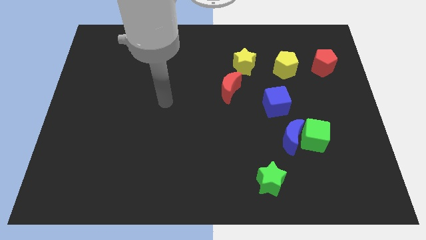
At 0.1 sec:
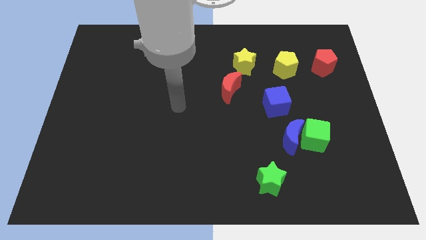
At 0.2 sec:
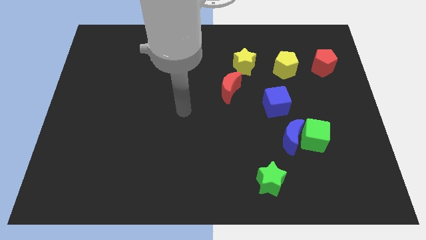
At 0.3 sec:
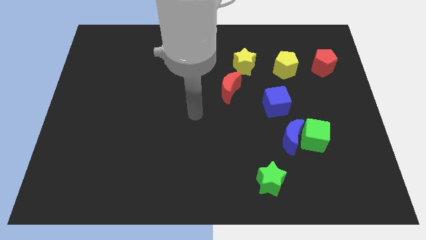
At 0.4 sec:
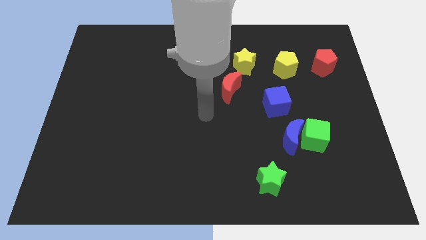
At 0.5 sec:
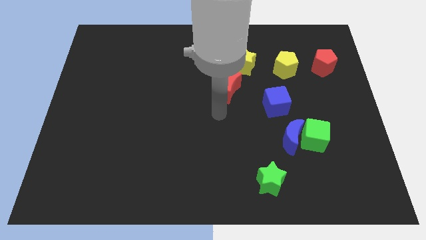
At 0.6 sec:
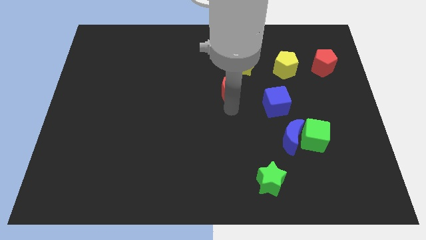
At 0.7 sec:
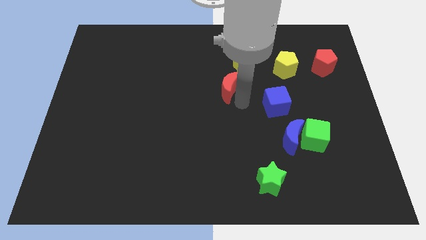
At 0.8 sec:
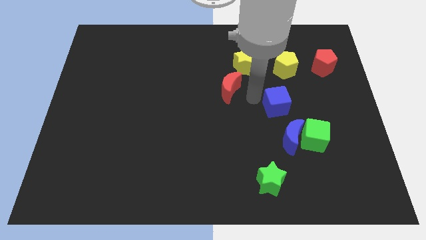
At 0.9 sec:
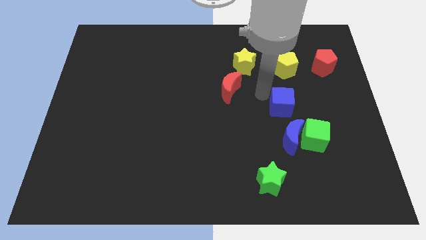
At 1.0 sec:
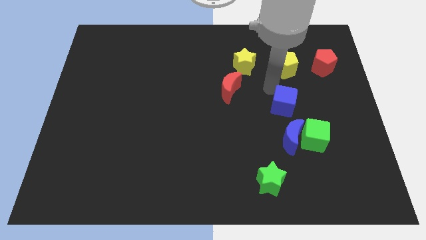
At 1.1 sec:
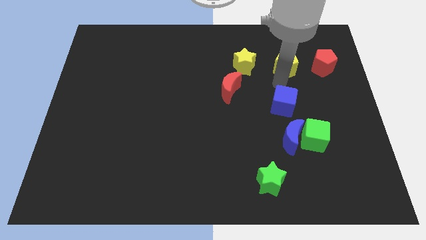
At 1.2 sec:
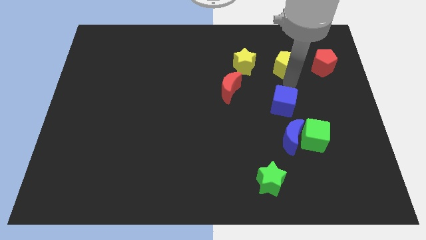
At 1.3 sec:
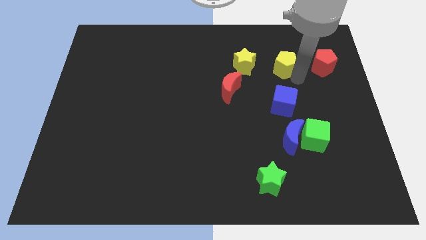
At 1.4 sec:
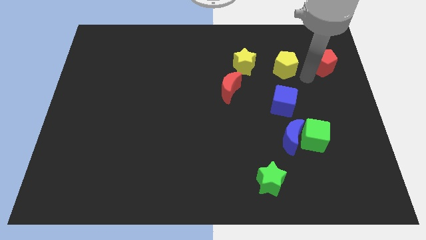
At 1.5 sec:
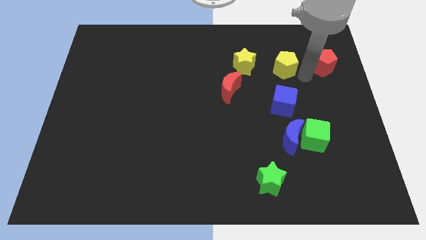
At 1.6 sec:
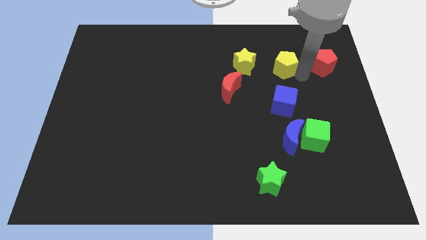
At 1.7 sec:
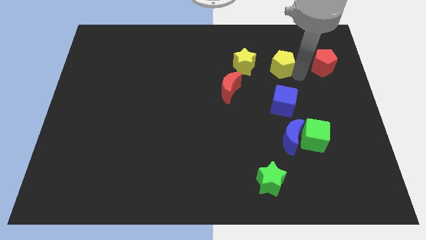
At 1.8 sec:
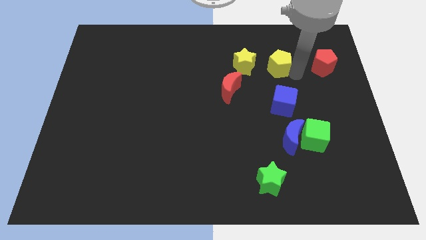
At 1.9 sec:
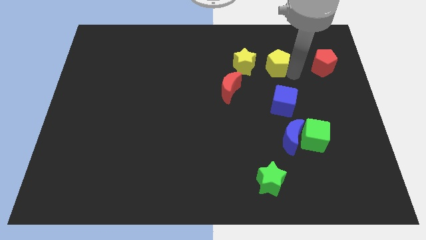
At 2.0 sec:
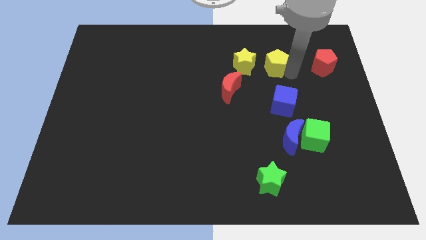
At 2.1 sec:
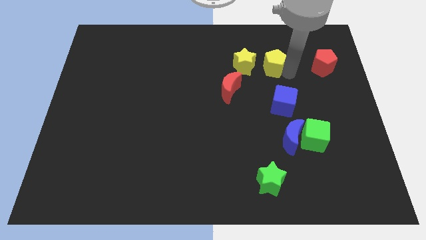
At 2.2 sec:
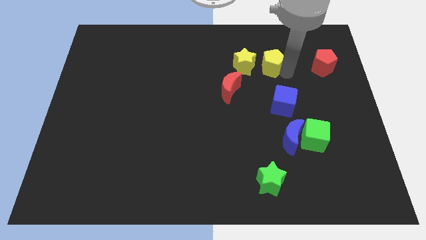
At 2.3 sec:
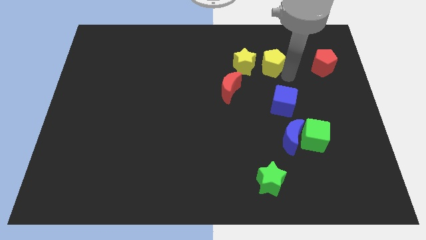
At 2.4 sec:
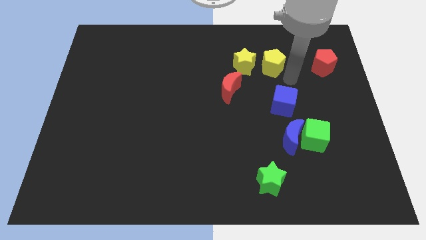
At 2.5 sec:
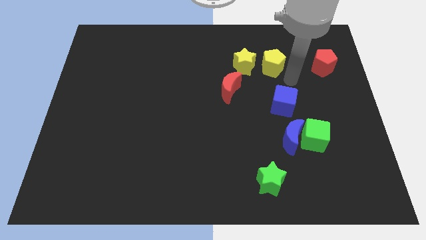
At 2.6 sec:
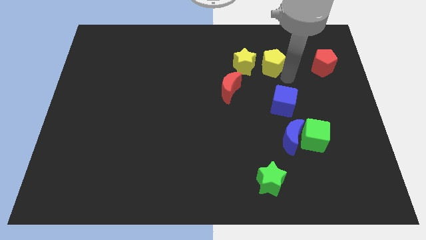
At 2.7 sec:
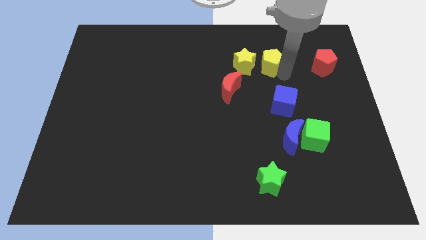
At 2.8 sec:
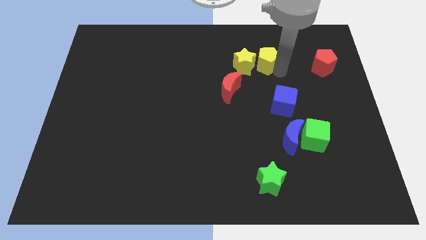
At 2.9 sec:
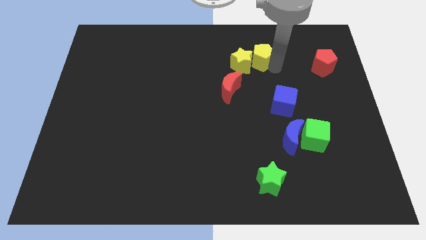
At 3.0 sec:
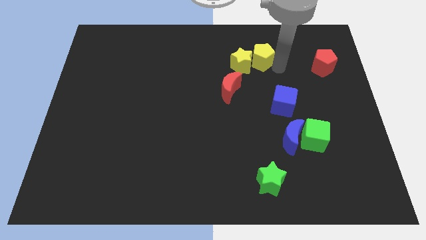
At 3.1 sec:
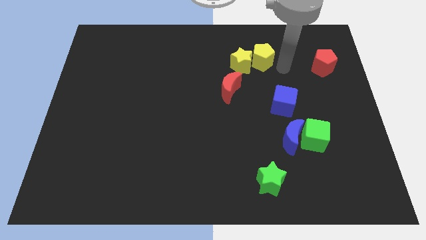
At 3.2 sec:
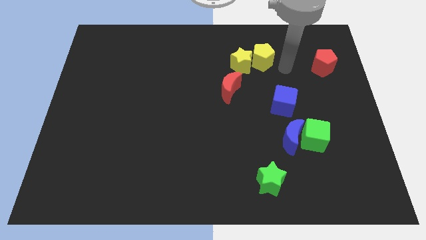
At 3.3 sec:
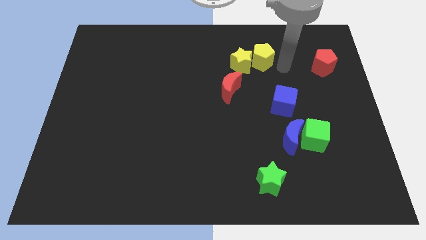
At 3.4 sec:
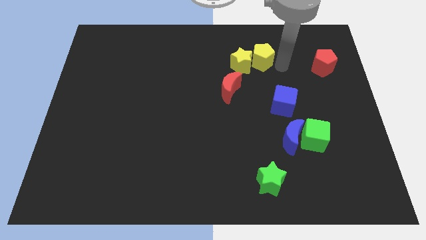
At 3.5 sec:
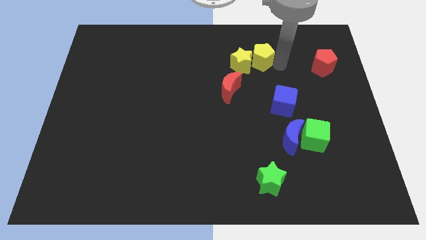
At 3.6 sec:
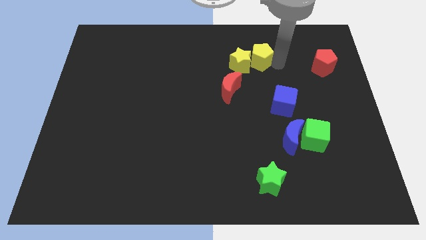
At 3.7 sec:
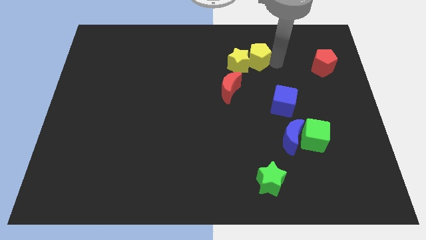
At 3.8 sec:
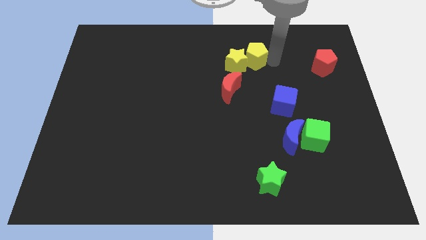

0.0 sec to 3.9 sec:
slide the yellow pentagon to the left slightly

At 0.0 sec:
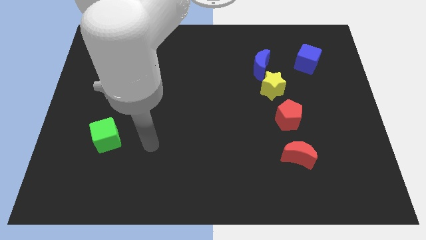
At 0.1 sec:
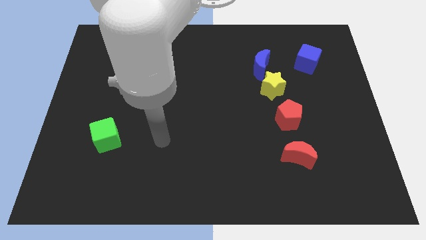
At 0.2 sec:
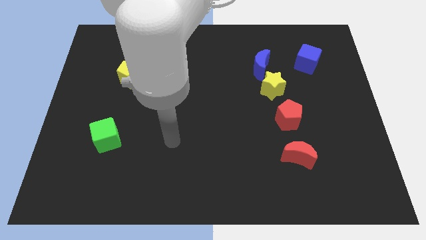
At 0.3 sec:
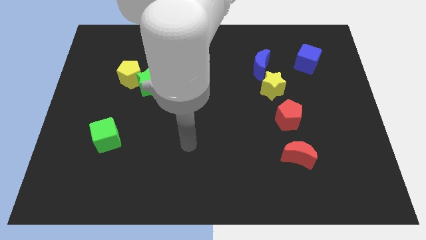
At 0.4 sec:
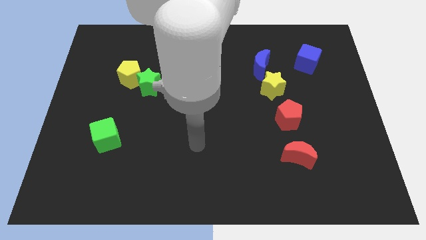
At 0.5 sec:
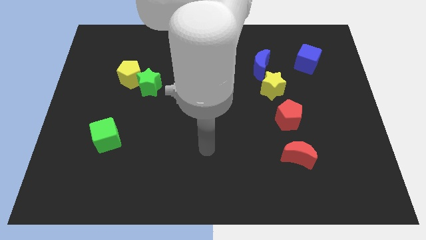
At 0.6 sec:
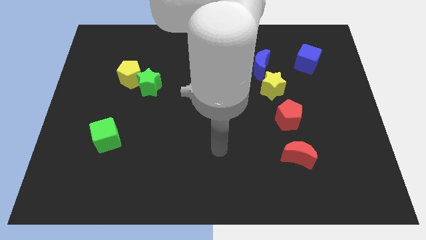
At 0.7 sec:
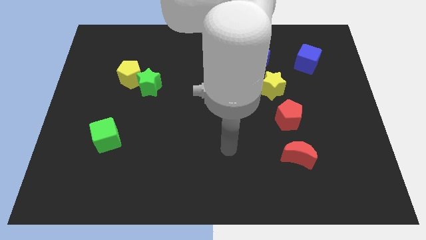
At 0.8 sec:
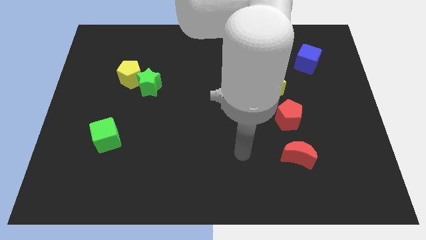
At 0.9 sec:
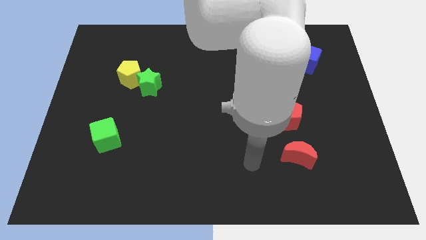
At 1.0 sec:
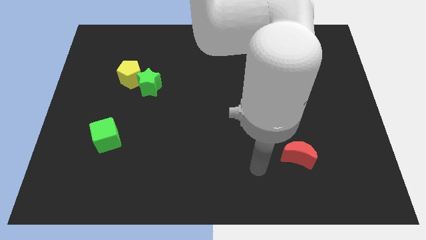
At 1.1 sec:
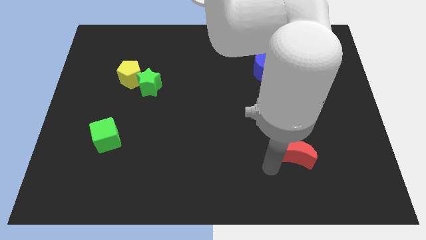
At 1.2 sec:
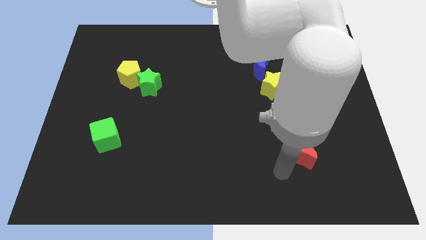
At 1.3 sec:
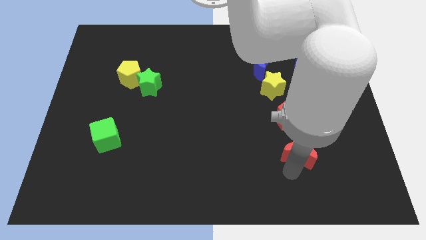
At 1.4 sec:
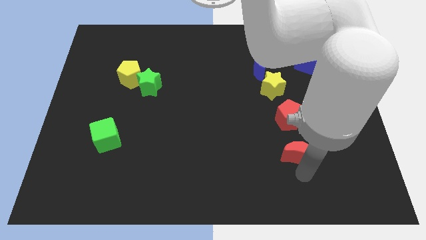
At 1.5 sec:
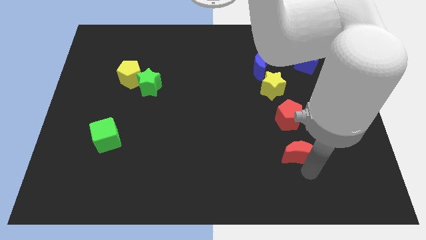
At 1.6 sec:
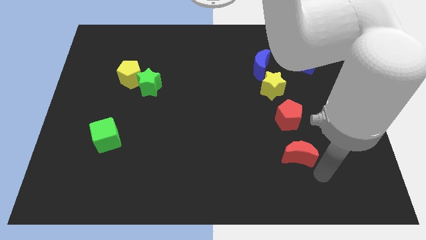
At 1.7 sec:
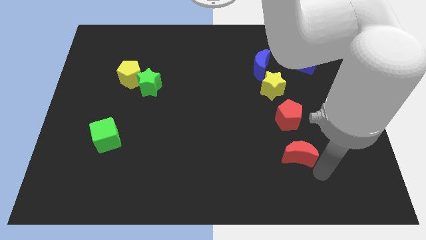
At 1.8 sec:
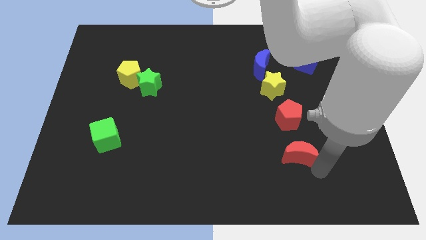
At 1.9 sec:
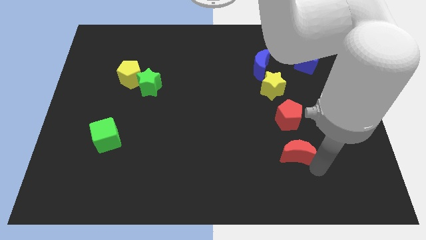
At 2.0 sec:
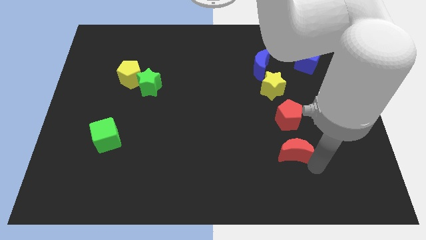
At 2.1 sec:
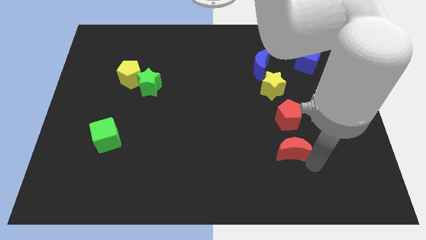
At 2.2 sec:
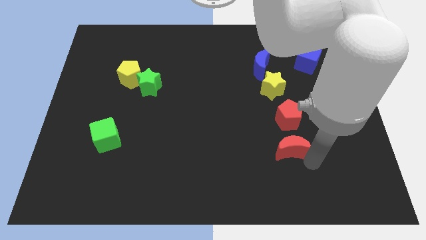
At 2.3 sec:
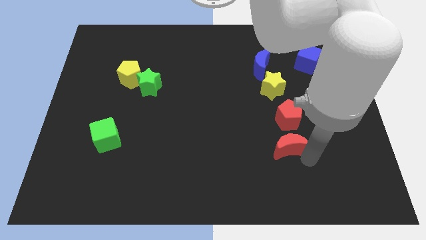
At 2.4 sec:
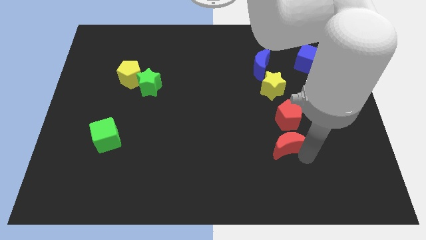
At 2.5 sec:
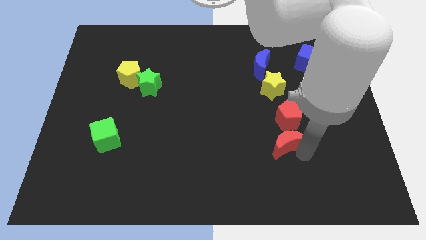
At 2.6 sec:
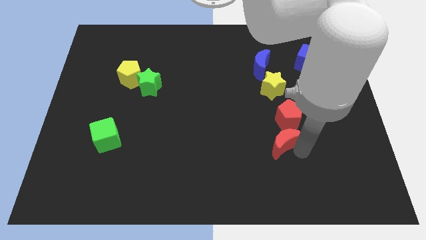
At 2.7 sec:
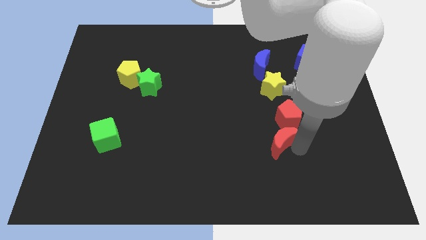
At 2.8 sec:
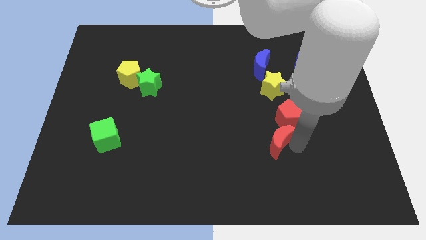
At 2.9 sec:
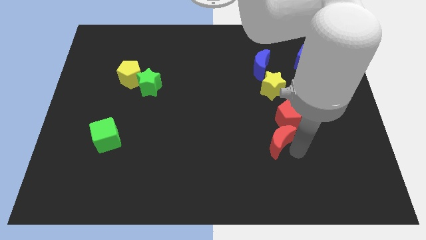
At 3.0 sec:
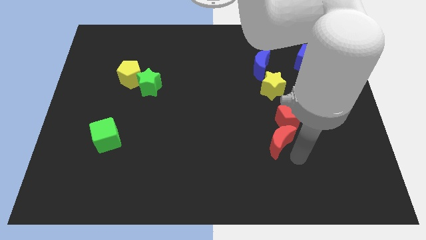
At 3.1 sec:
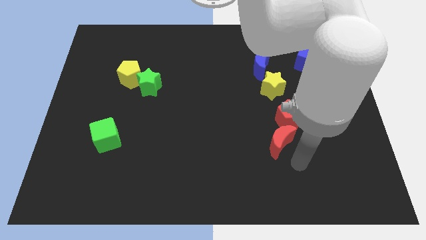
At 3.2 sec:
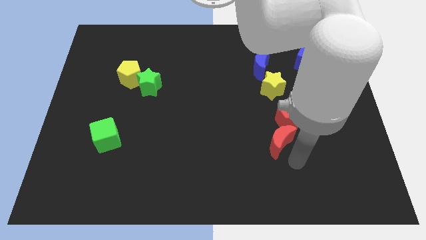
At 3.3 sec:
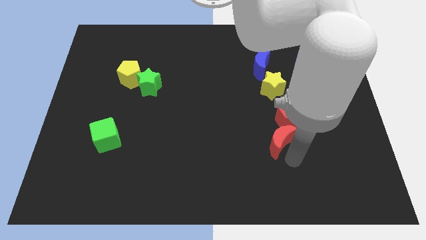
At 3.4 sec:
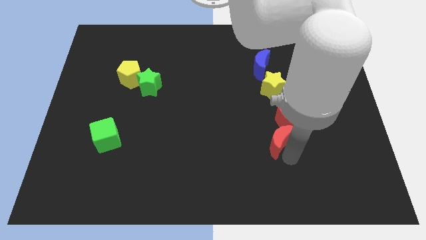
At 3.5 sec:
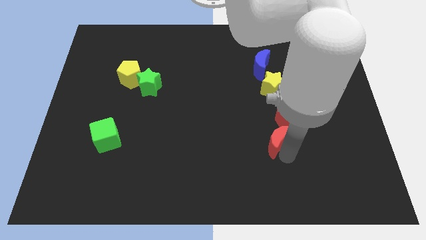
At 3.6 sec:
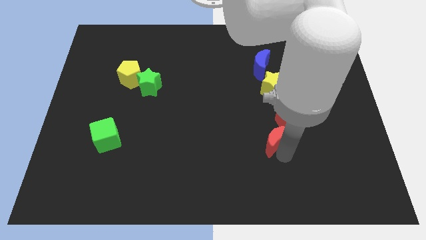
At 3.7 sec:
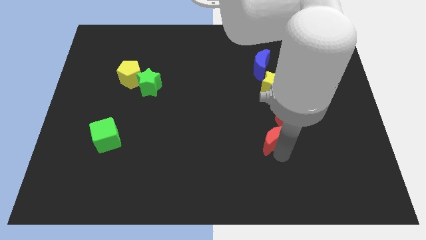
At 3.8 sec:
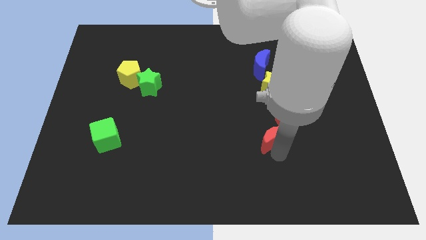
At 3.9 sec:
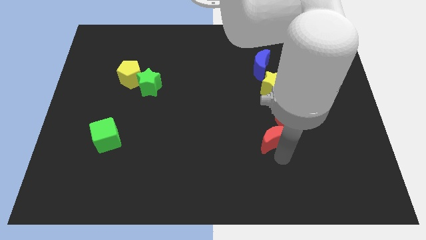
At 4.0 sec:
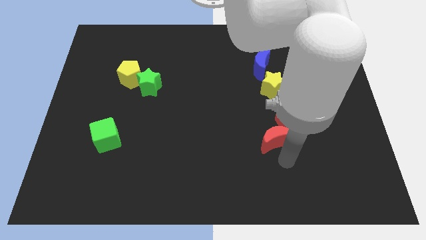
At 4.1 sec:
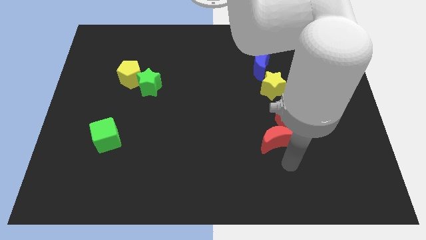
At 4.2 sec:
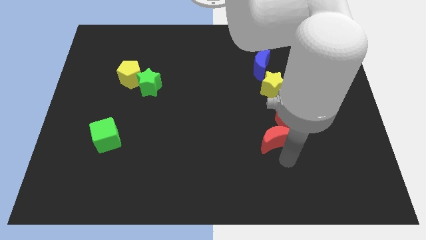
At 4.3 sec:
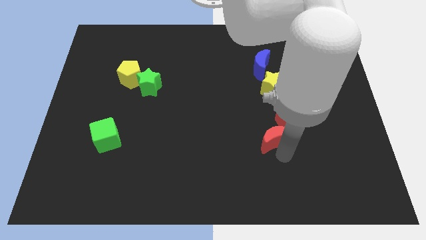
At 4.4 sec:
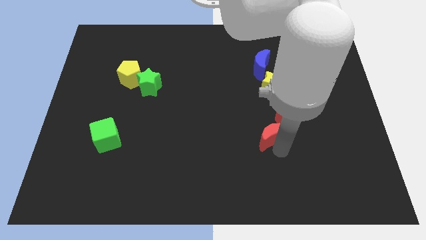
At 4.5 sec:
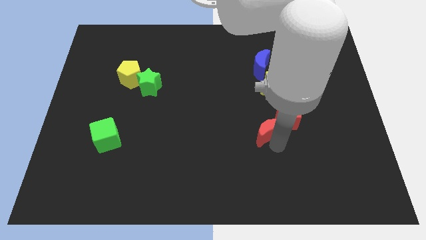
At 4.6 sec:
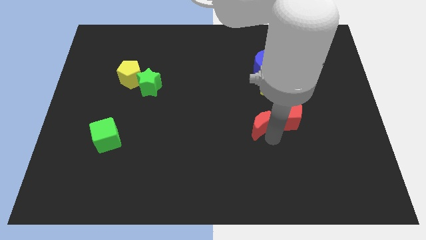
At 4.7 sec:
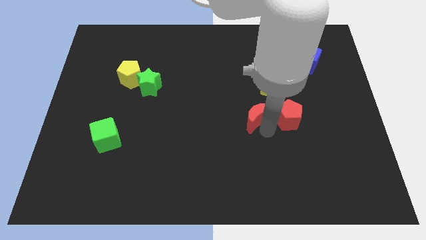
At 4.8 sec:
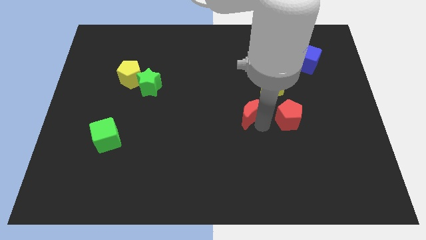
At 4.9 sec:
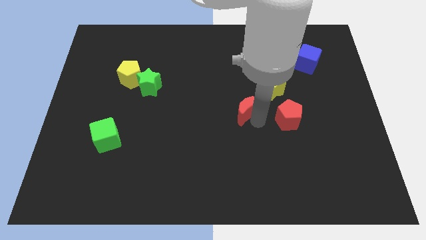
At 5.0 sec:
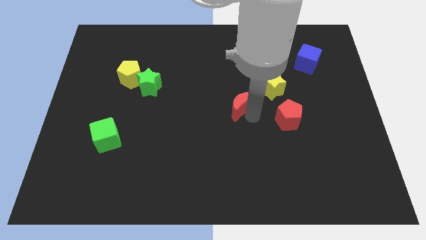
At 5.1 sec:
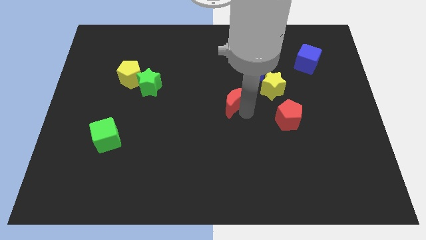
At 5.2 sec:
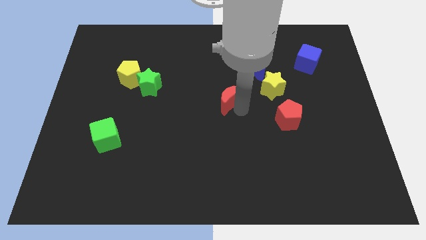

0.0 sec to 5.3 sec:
push the red moon upwards and left diagonally
